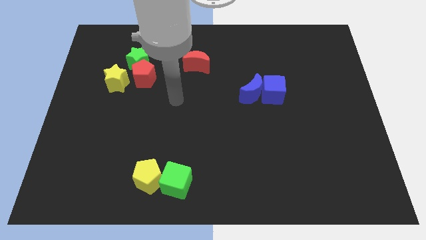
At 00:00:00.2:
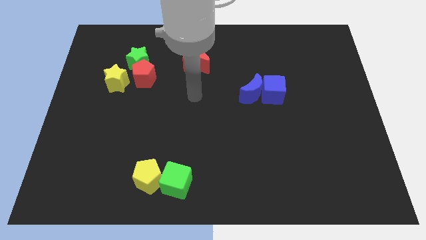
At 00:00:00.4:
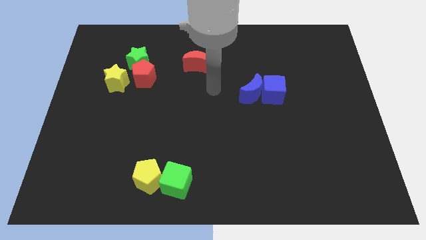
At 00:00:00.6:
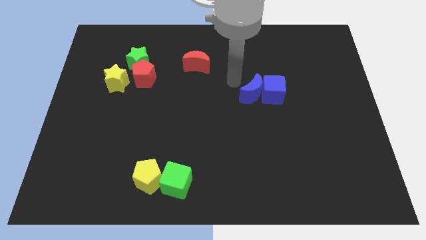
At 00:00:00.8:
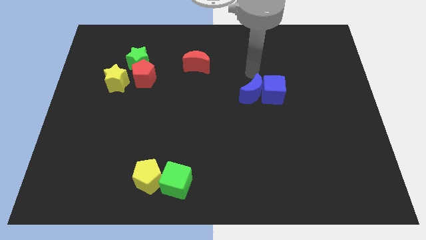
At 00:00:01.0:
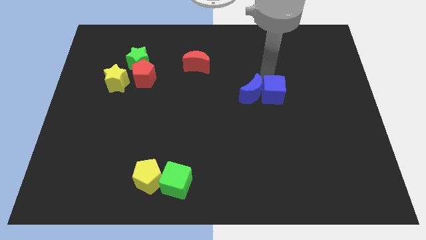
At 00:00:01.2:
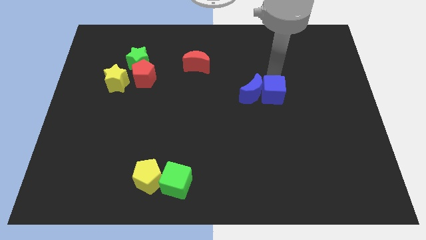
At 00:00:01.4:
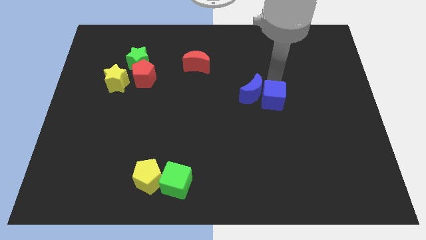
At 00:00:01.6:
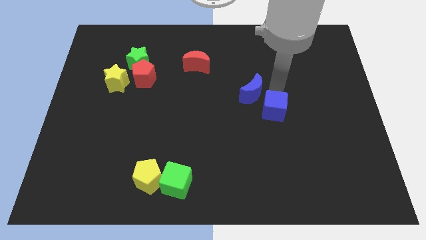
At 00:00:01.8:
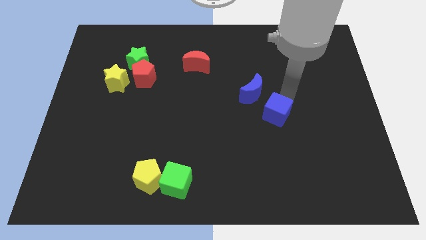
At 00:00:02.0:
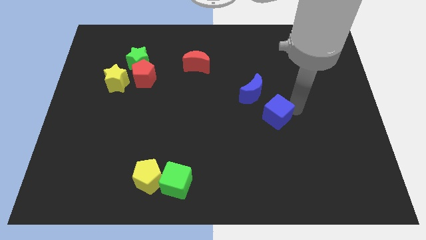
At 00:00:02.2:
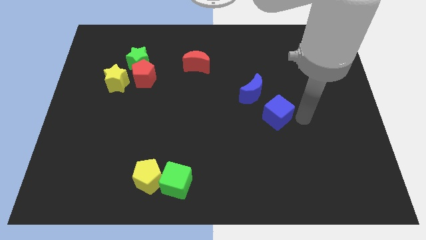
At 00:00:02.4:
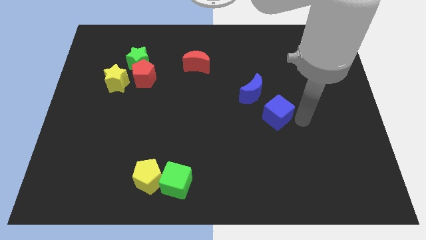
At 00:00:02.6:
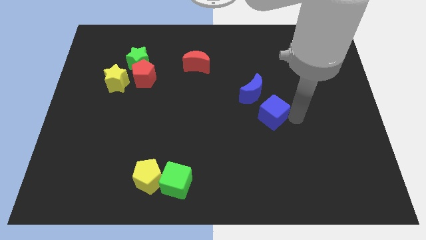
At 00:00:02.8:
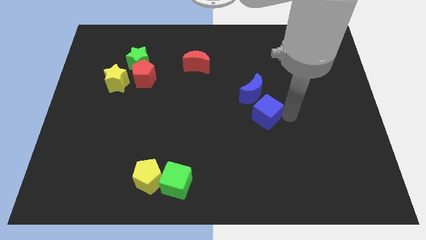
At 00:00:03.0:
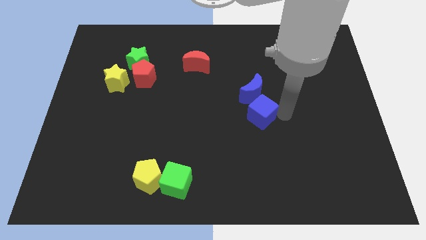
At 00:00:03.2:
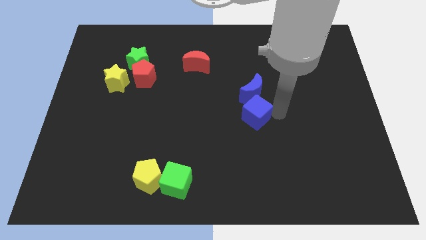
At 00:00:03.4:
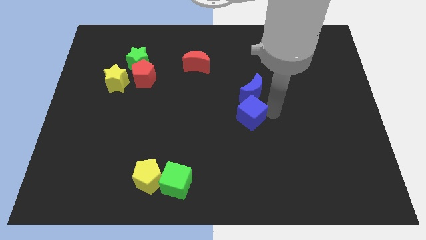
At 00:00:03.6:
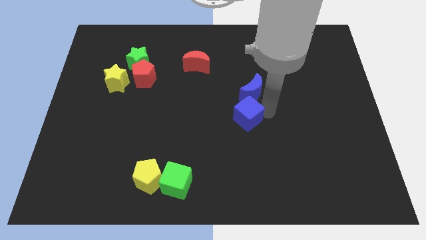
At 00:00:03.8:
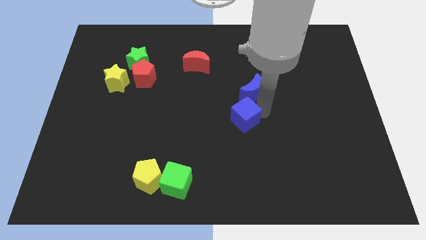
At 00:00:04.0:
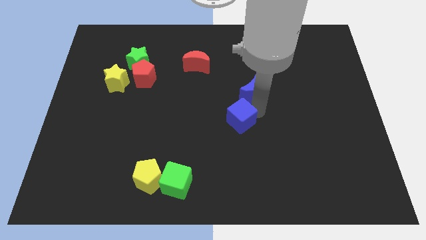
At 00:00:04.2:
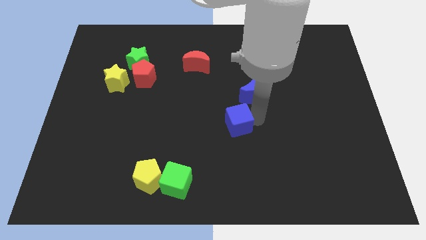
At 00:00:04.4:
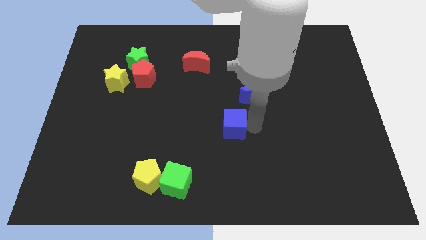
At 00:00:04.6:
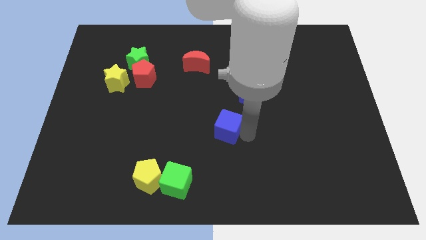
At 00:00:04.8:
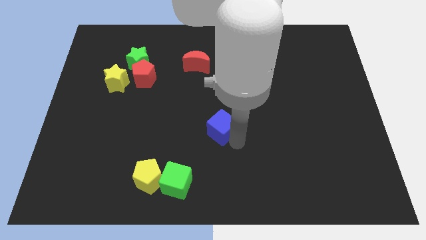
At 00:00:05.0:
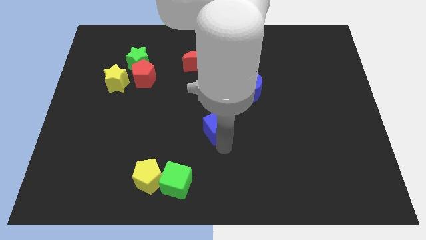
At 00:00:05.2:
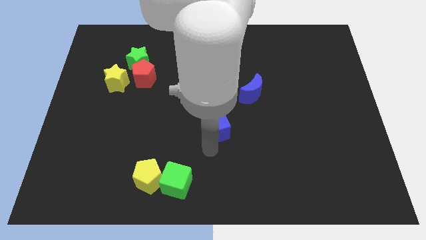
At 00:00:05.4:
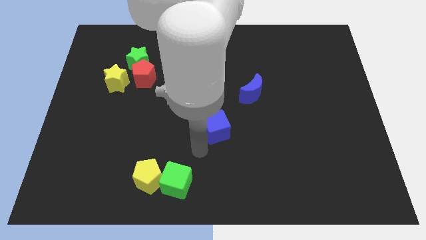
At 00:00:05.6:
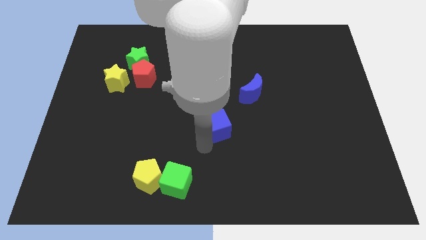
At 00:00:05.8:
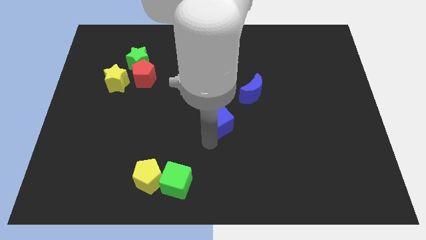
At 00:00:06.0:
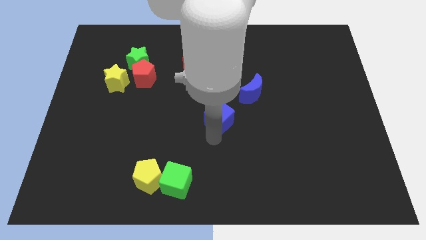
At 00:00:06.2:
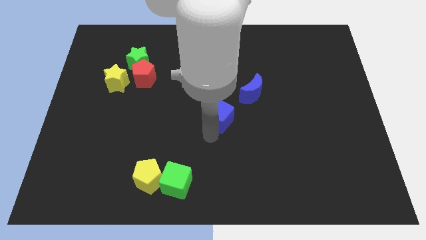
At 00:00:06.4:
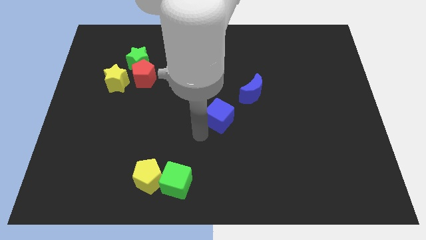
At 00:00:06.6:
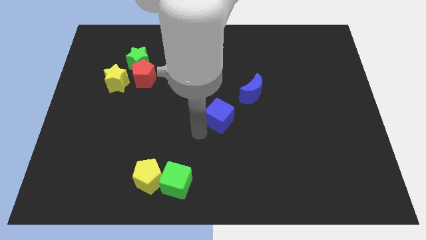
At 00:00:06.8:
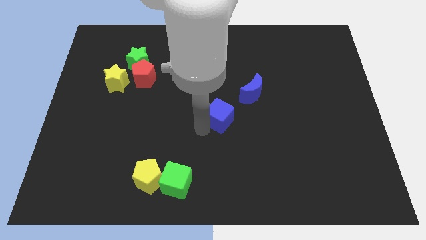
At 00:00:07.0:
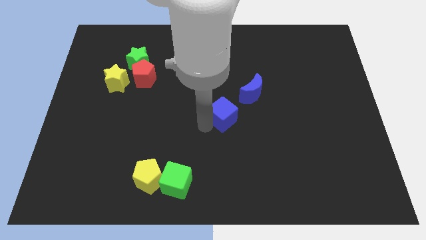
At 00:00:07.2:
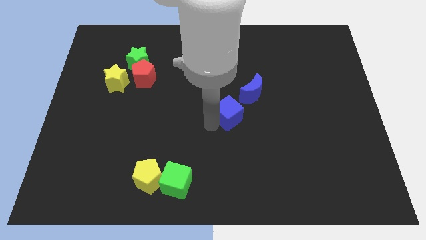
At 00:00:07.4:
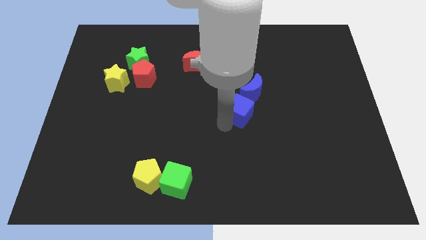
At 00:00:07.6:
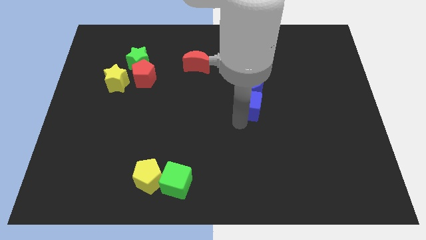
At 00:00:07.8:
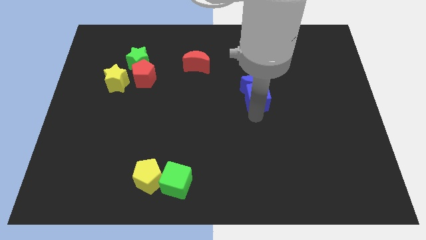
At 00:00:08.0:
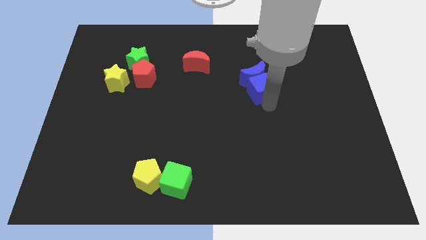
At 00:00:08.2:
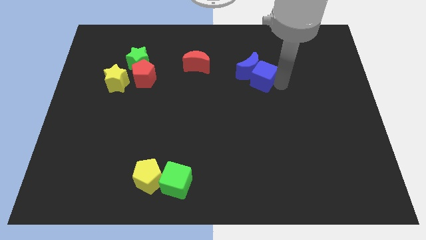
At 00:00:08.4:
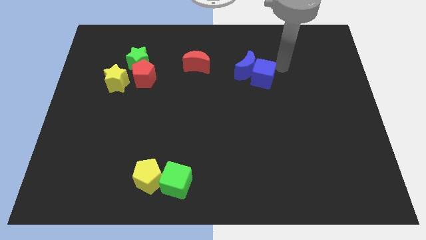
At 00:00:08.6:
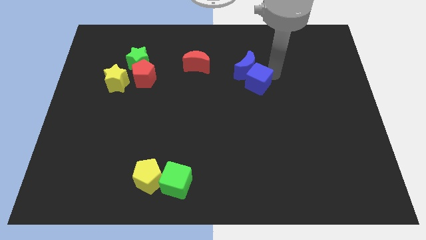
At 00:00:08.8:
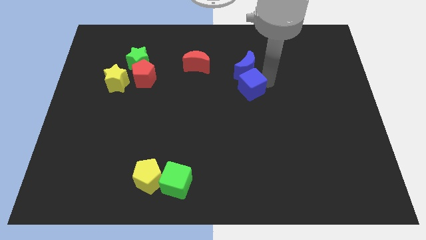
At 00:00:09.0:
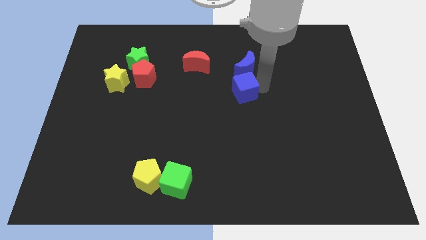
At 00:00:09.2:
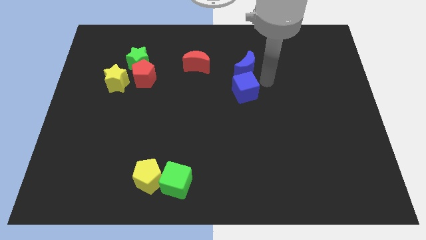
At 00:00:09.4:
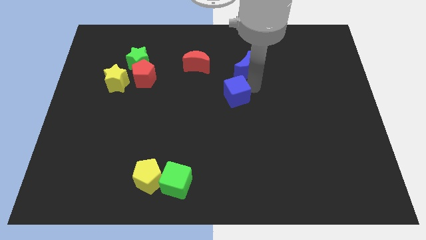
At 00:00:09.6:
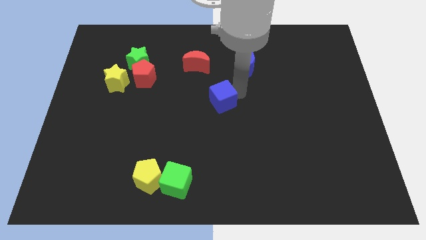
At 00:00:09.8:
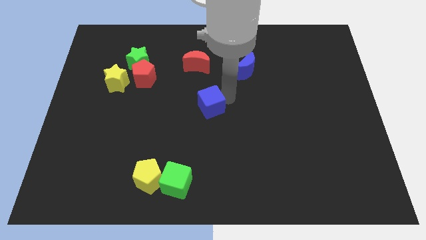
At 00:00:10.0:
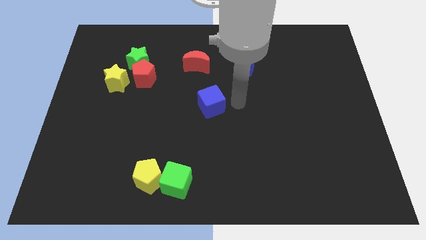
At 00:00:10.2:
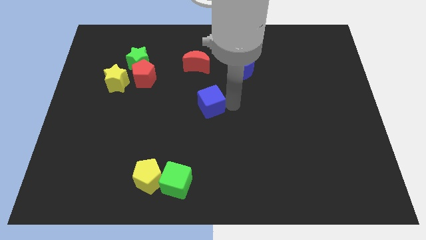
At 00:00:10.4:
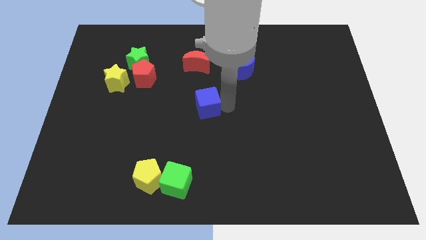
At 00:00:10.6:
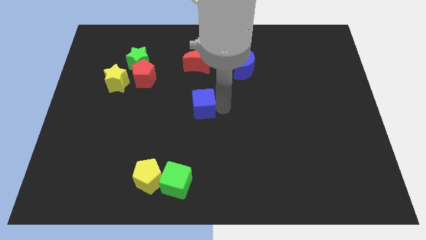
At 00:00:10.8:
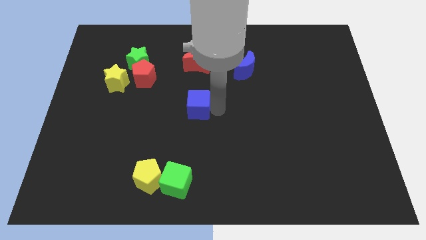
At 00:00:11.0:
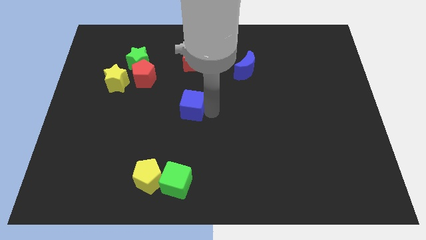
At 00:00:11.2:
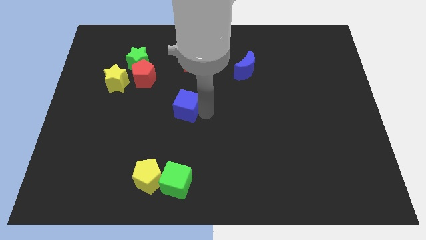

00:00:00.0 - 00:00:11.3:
move the blue cube left

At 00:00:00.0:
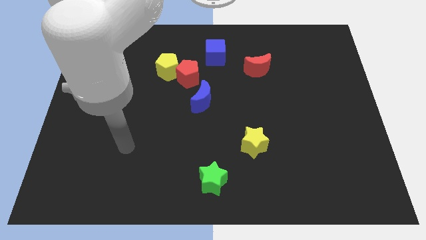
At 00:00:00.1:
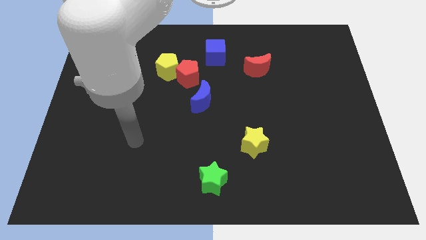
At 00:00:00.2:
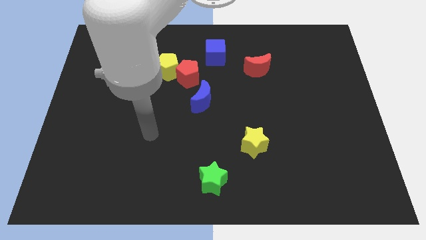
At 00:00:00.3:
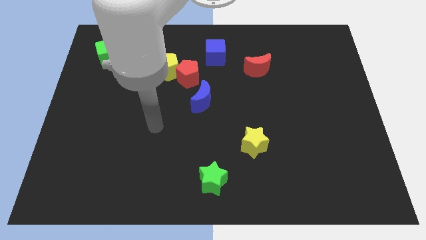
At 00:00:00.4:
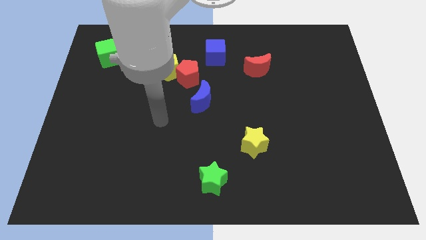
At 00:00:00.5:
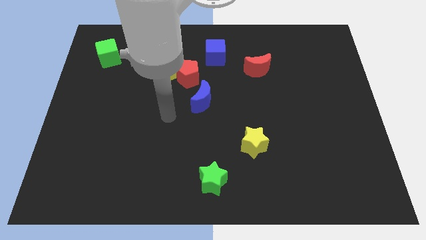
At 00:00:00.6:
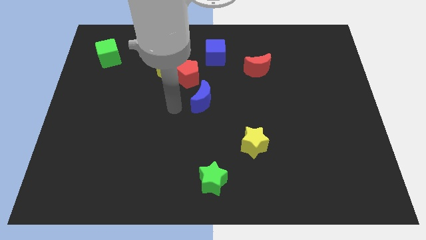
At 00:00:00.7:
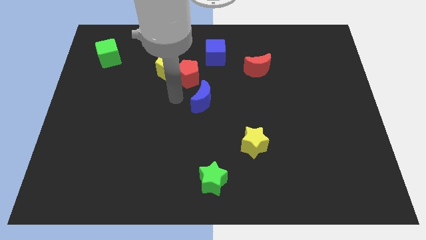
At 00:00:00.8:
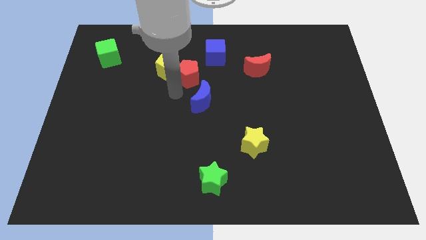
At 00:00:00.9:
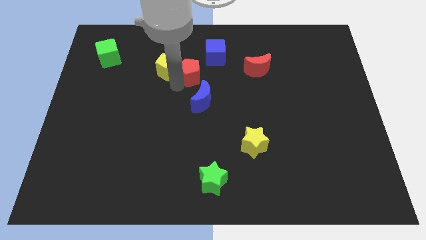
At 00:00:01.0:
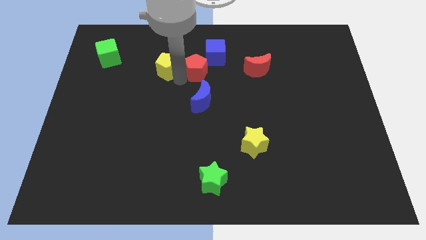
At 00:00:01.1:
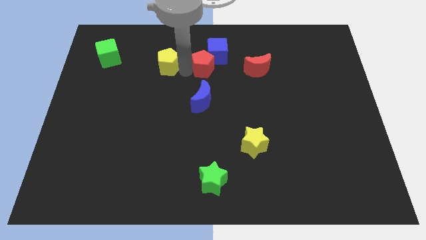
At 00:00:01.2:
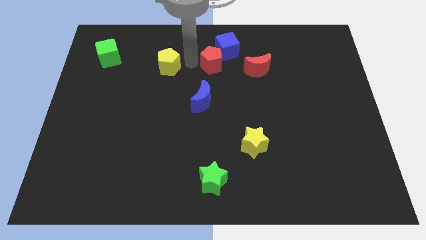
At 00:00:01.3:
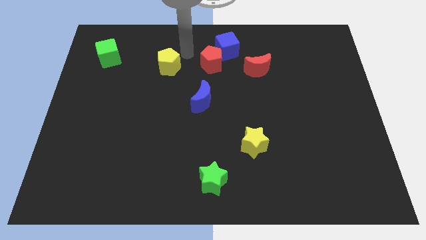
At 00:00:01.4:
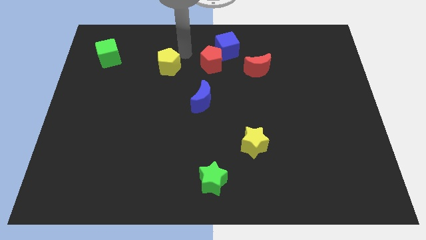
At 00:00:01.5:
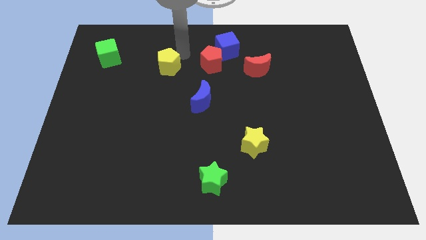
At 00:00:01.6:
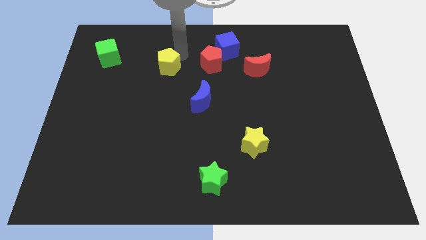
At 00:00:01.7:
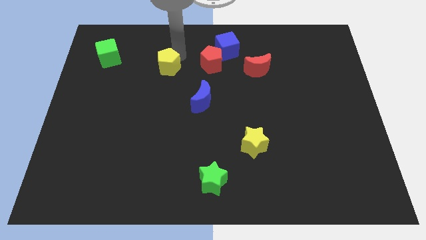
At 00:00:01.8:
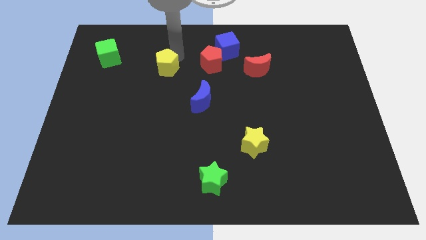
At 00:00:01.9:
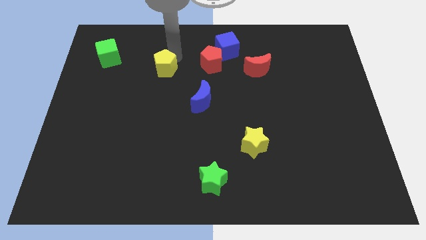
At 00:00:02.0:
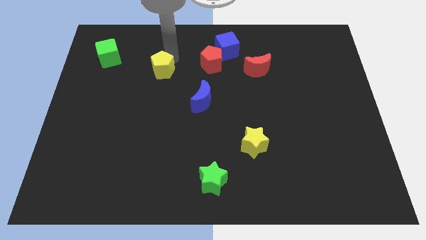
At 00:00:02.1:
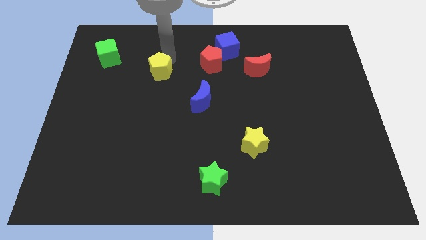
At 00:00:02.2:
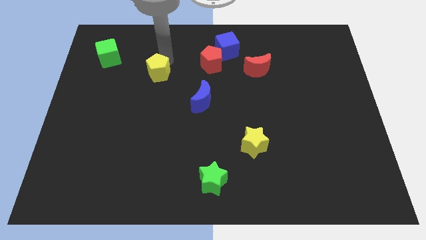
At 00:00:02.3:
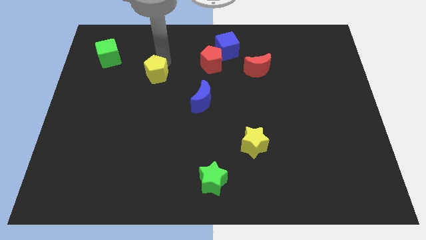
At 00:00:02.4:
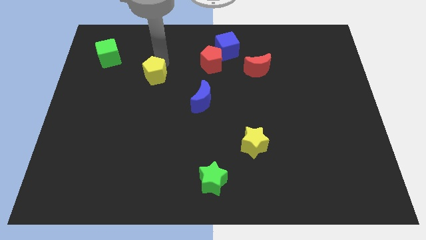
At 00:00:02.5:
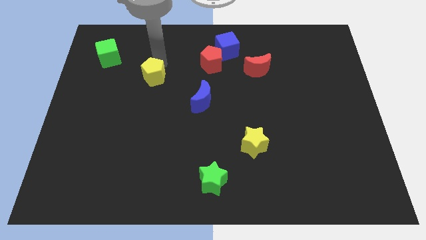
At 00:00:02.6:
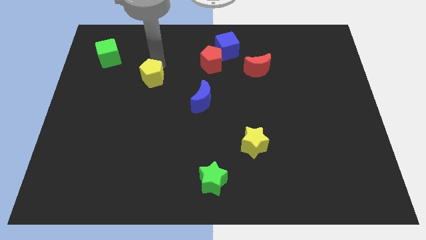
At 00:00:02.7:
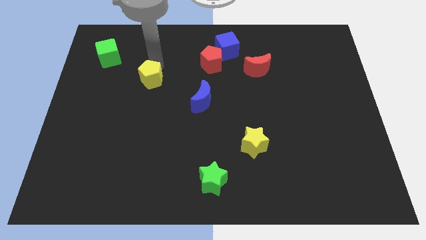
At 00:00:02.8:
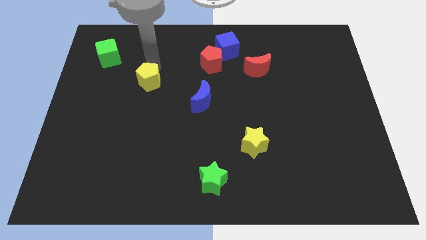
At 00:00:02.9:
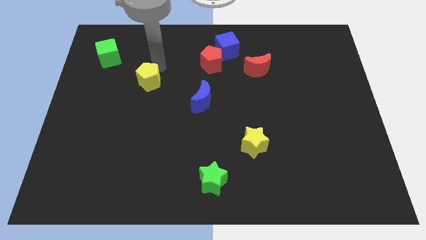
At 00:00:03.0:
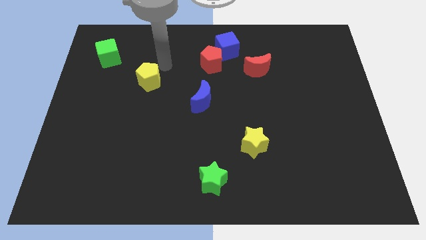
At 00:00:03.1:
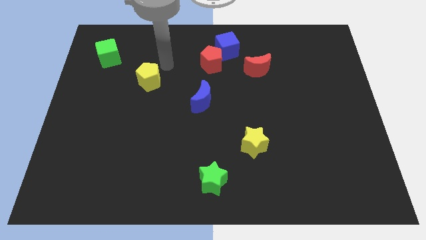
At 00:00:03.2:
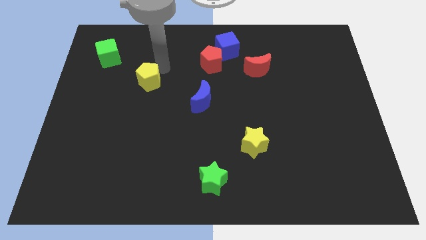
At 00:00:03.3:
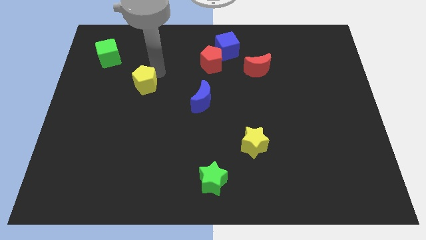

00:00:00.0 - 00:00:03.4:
slightly move the yellow pentagon down and left diagonally
